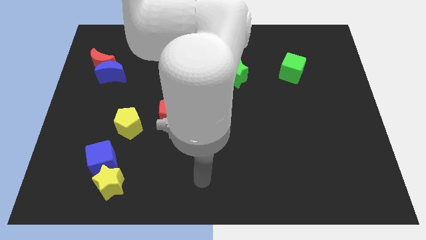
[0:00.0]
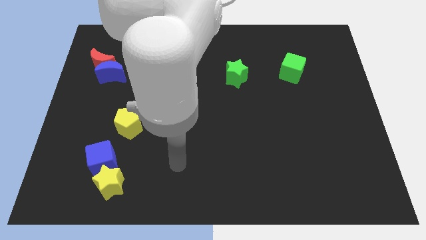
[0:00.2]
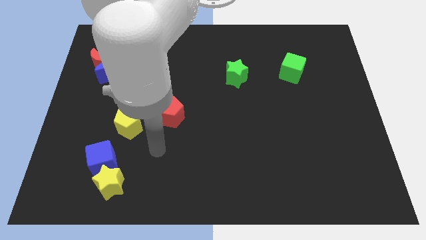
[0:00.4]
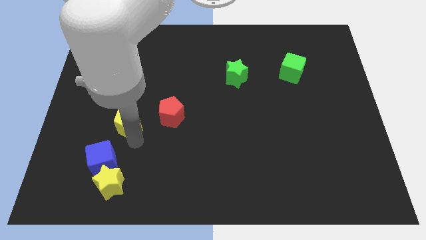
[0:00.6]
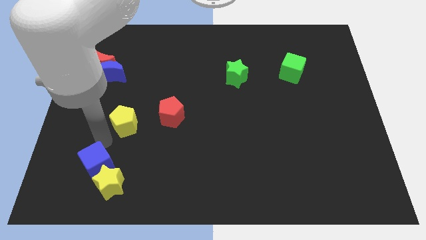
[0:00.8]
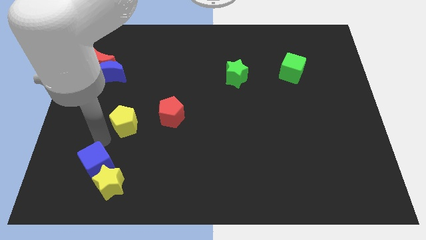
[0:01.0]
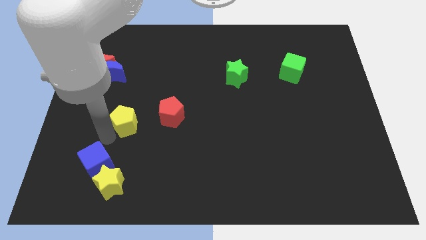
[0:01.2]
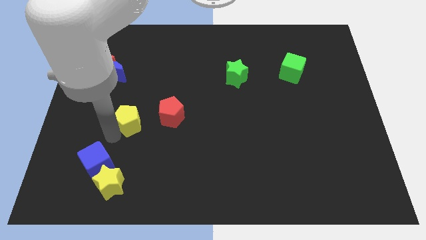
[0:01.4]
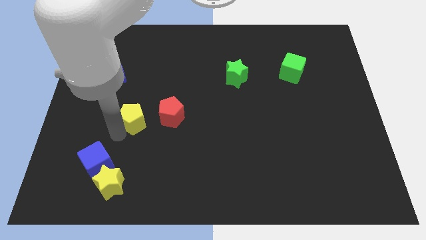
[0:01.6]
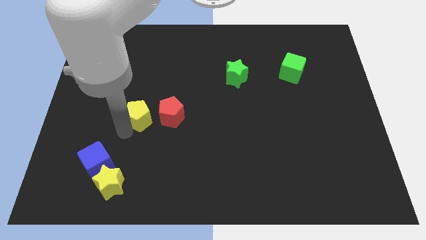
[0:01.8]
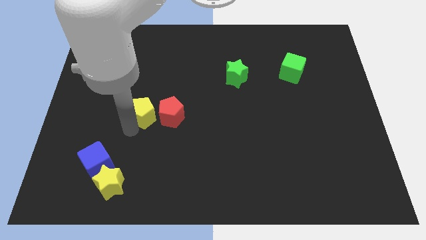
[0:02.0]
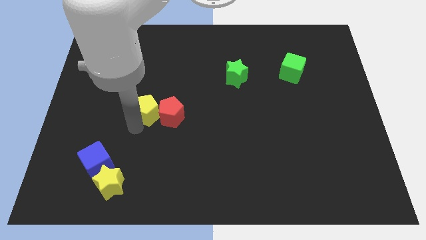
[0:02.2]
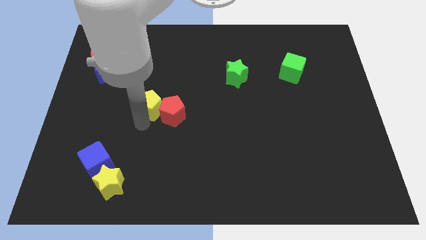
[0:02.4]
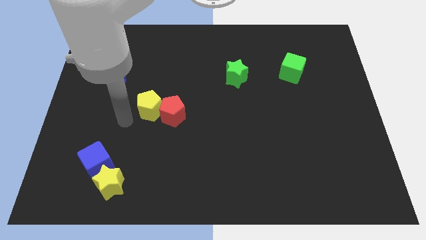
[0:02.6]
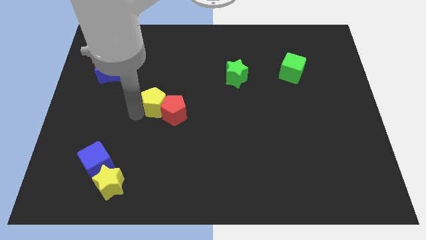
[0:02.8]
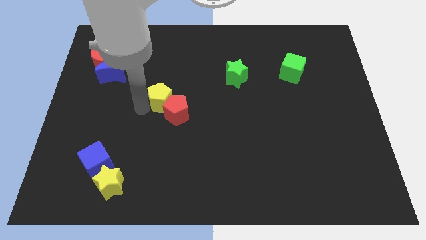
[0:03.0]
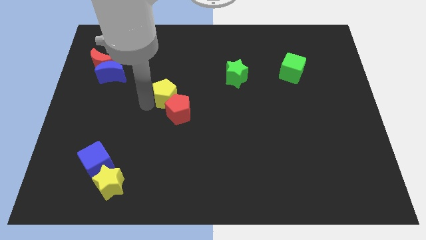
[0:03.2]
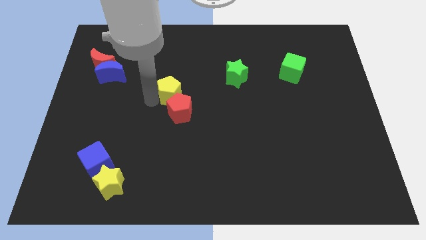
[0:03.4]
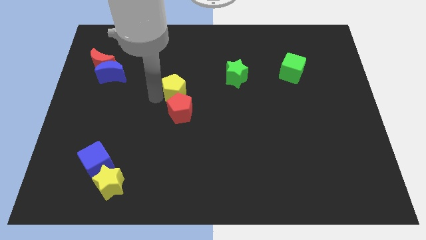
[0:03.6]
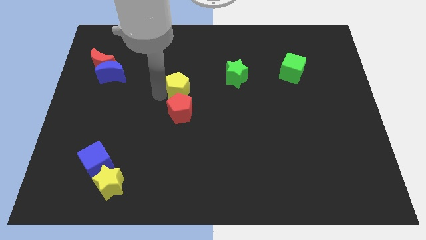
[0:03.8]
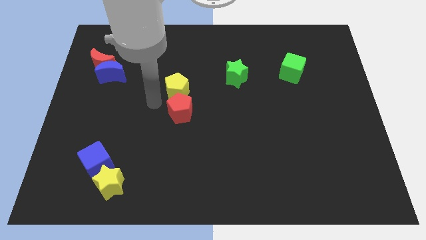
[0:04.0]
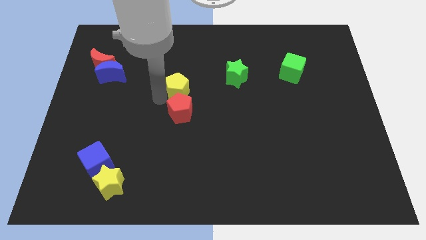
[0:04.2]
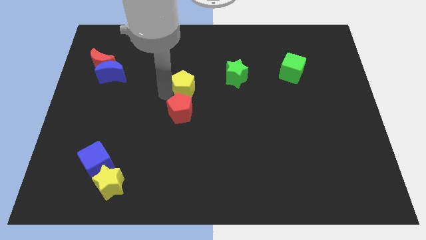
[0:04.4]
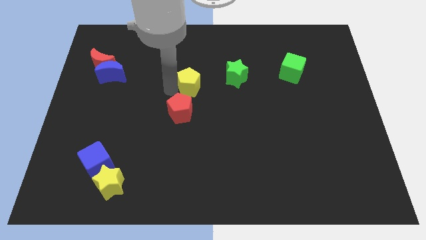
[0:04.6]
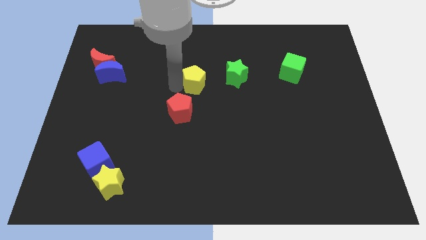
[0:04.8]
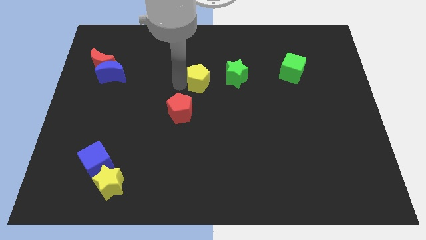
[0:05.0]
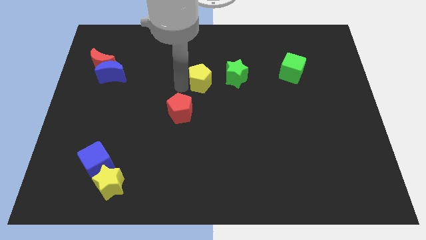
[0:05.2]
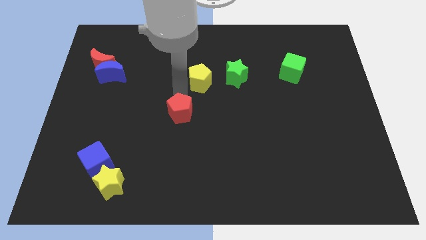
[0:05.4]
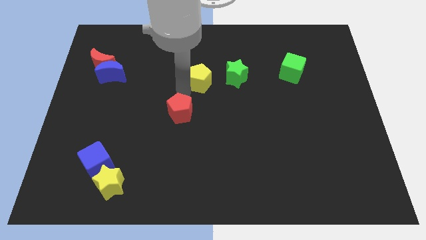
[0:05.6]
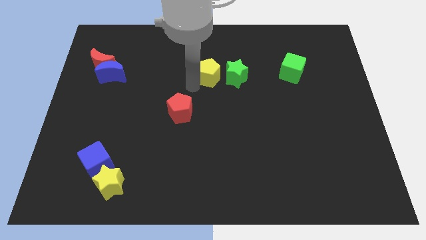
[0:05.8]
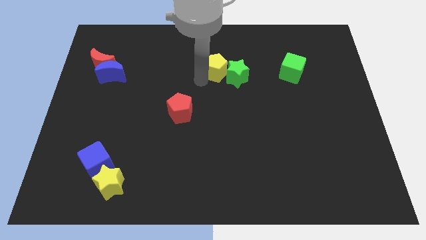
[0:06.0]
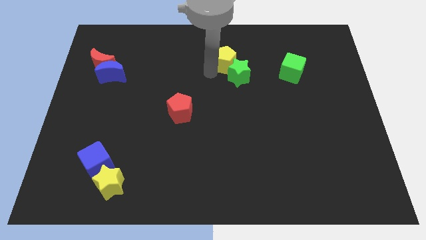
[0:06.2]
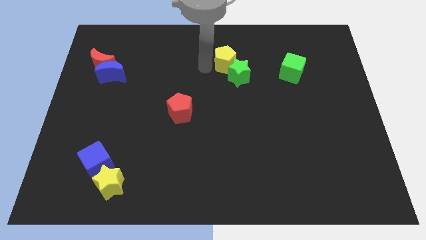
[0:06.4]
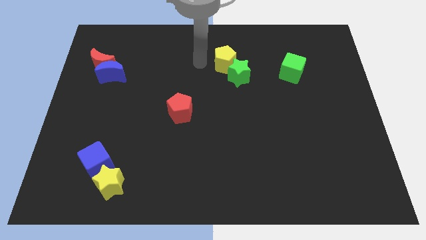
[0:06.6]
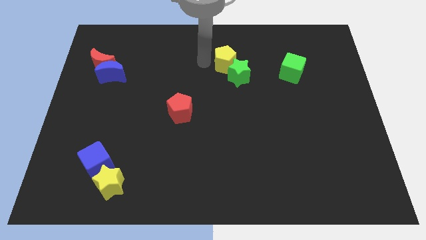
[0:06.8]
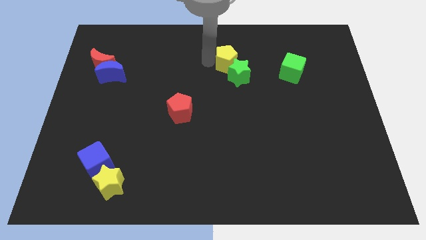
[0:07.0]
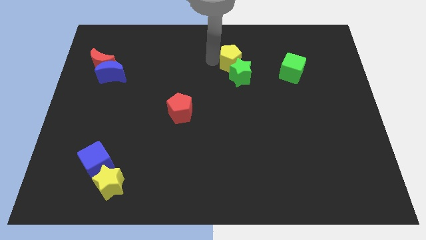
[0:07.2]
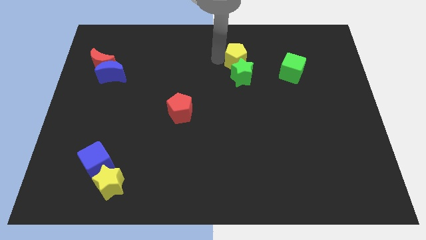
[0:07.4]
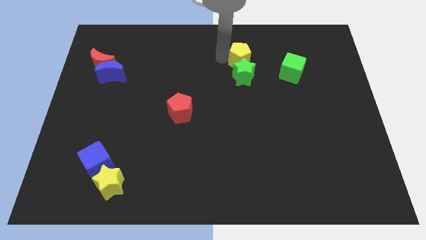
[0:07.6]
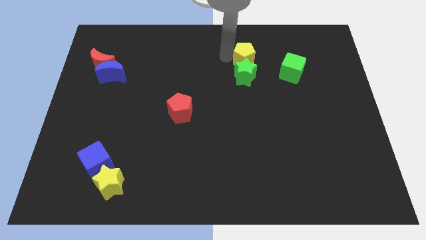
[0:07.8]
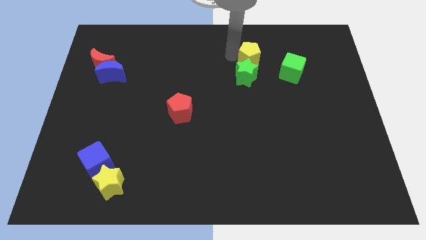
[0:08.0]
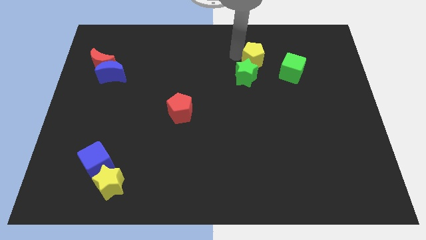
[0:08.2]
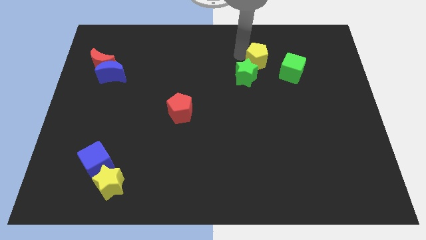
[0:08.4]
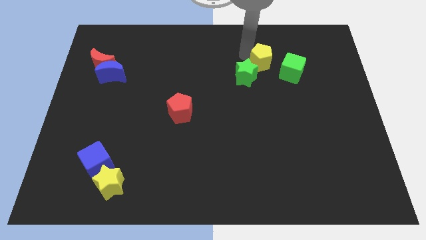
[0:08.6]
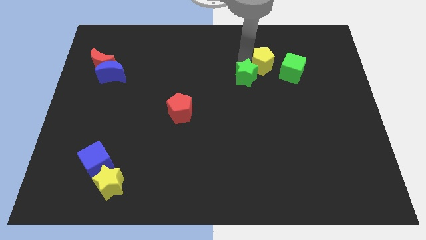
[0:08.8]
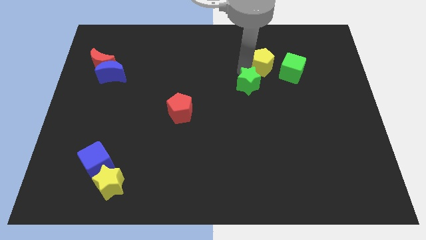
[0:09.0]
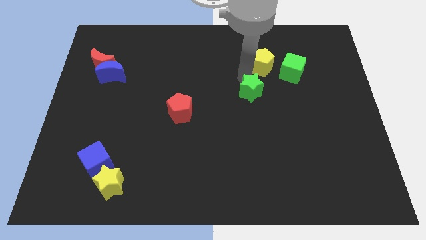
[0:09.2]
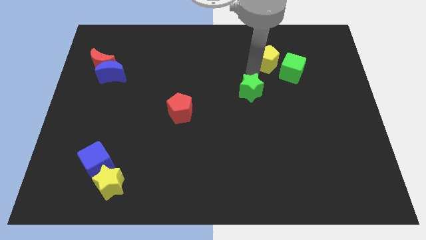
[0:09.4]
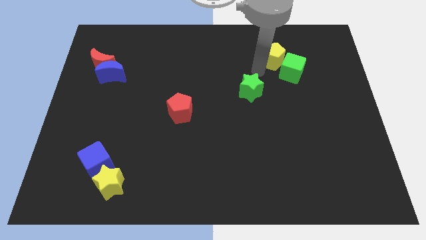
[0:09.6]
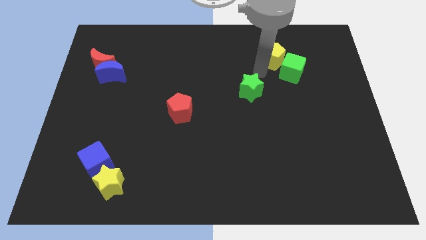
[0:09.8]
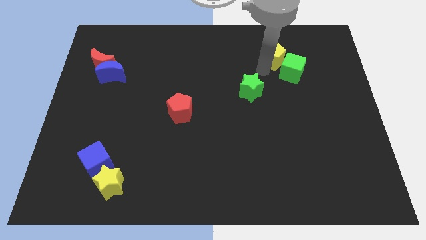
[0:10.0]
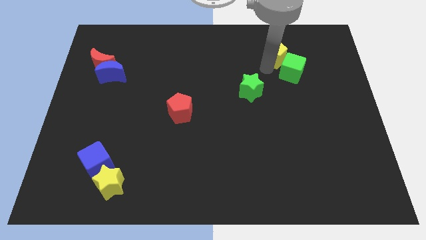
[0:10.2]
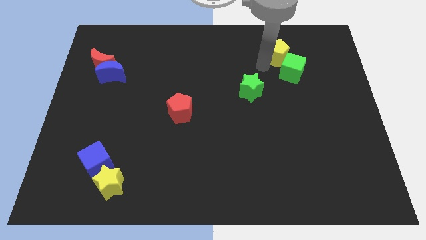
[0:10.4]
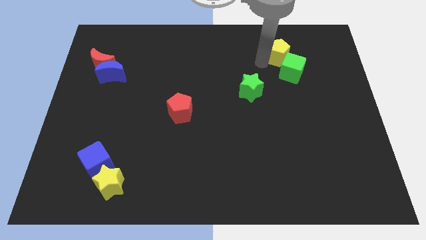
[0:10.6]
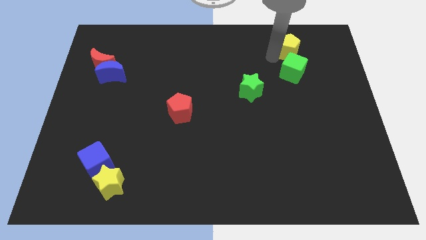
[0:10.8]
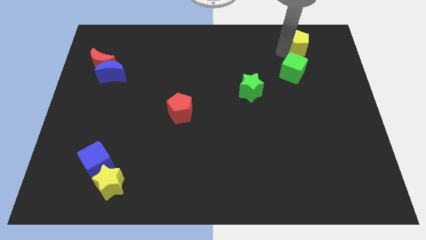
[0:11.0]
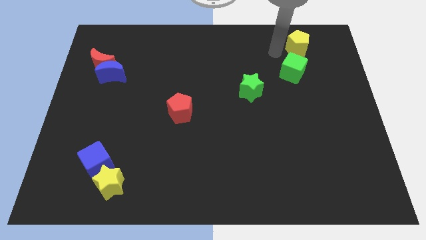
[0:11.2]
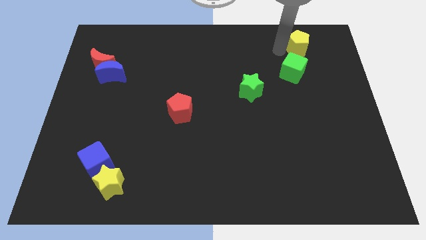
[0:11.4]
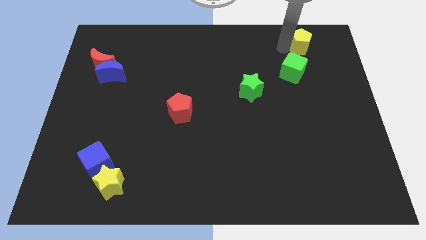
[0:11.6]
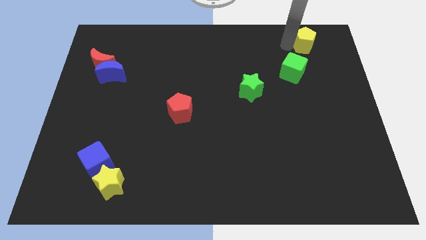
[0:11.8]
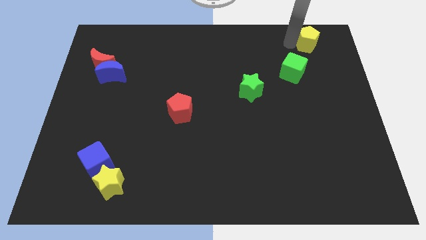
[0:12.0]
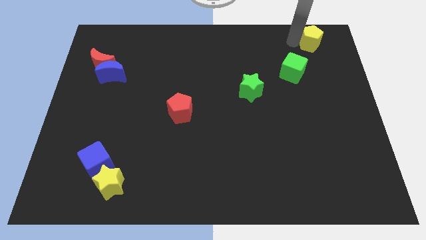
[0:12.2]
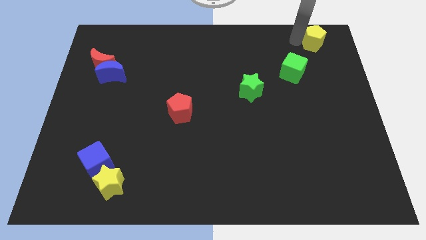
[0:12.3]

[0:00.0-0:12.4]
push the yellow pentagon to the upper right corner
